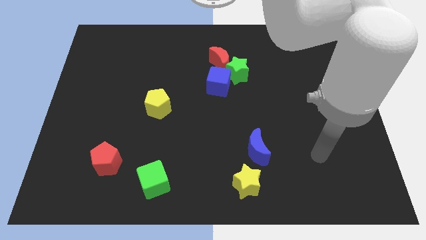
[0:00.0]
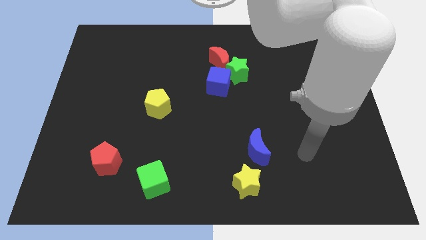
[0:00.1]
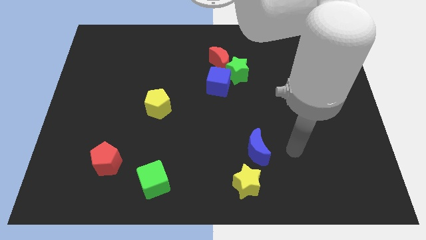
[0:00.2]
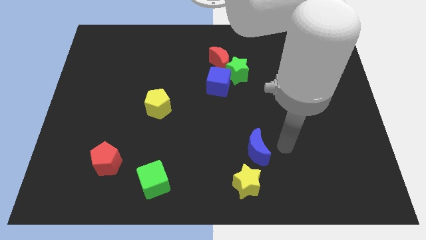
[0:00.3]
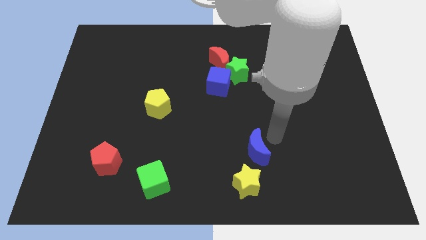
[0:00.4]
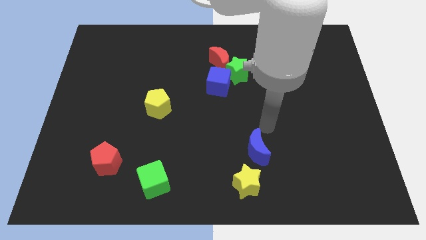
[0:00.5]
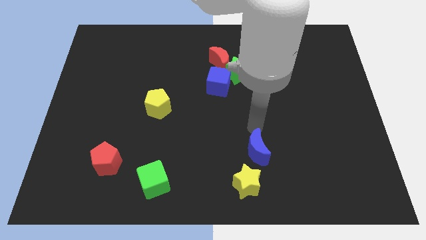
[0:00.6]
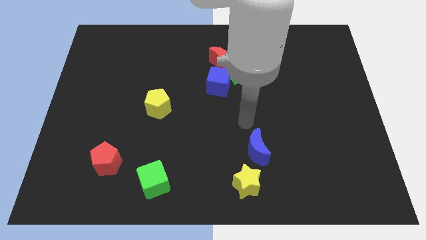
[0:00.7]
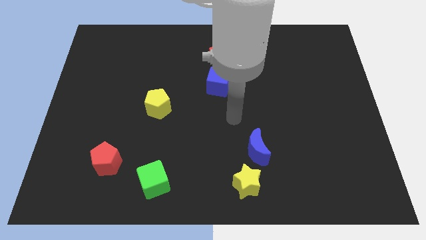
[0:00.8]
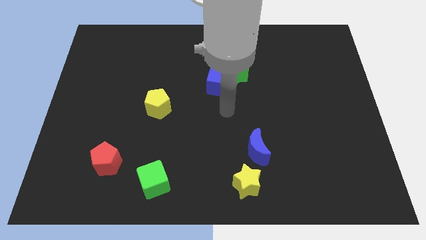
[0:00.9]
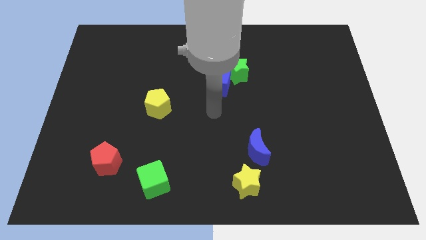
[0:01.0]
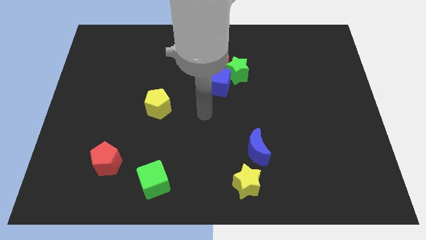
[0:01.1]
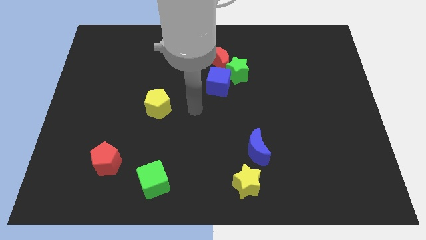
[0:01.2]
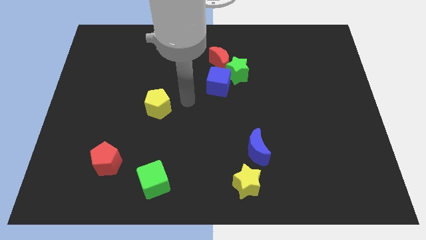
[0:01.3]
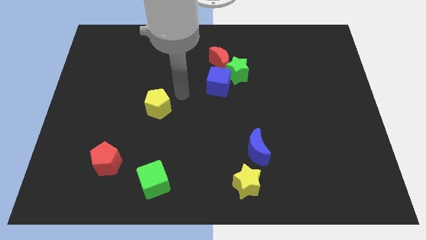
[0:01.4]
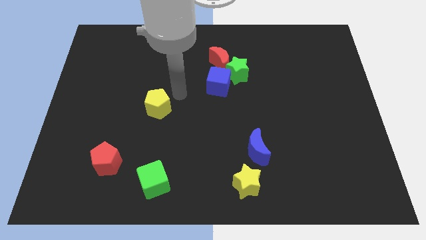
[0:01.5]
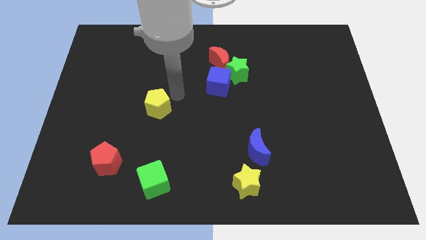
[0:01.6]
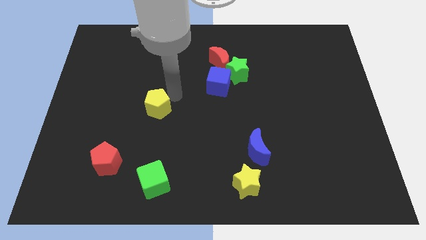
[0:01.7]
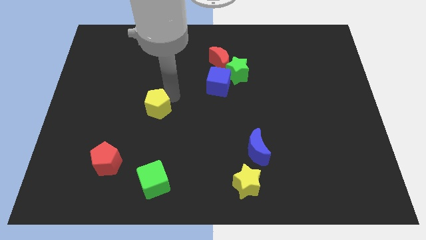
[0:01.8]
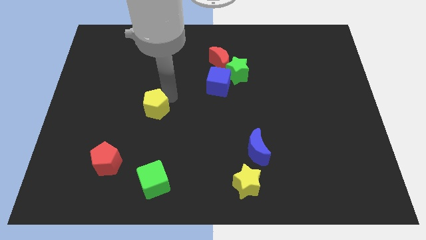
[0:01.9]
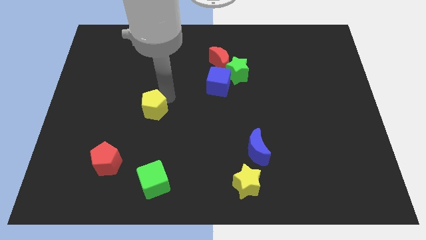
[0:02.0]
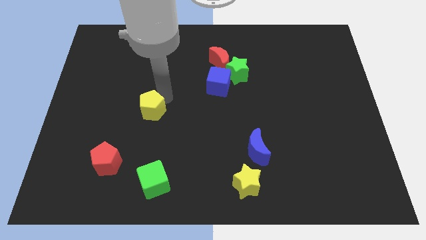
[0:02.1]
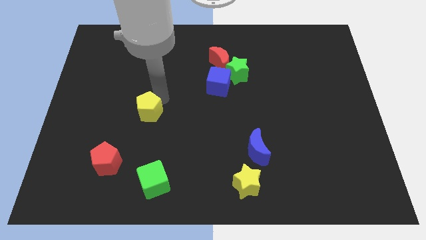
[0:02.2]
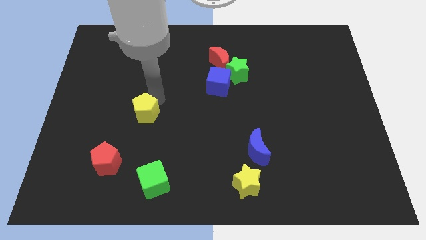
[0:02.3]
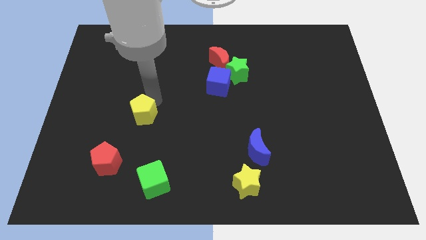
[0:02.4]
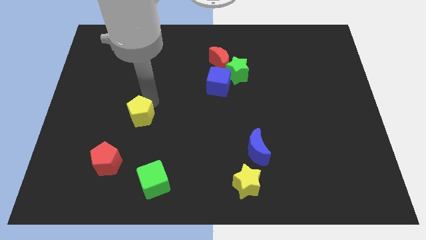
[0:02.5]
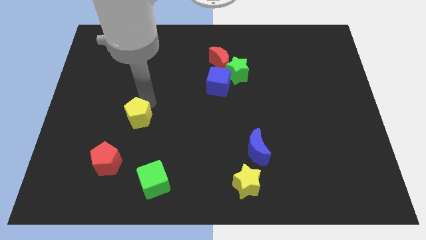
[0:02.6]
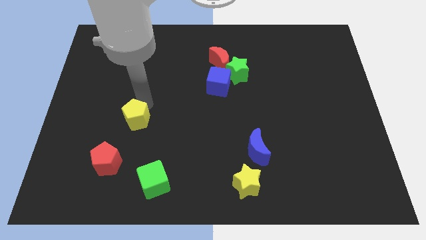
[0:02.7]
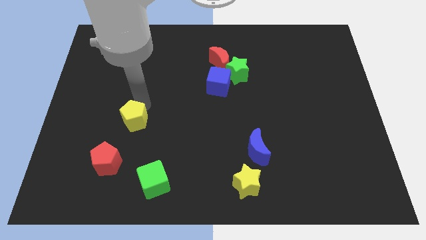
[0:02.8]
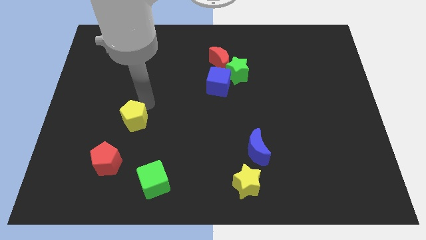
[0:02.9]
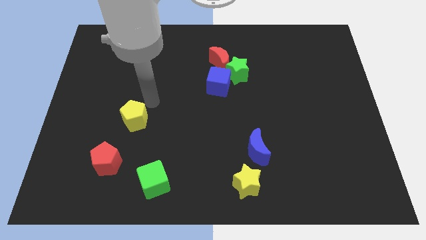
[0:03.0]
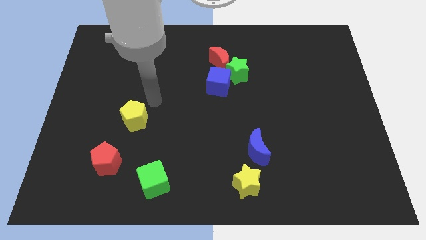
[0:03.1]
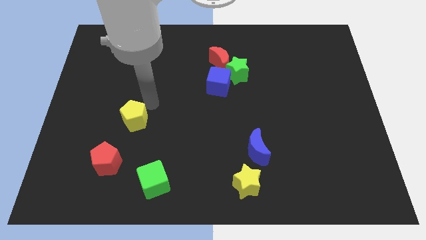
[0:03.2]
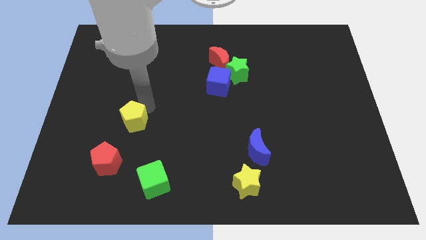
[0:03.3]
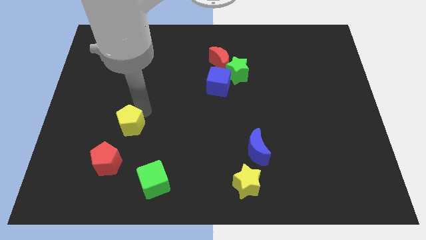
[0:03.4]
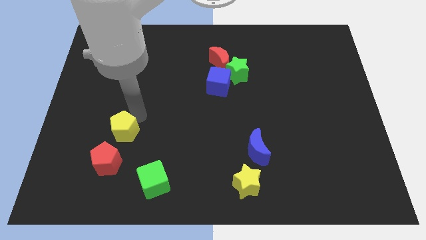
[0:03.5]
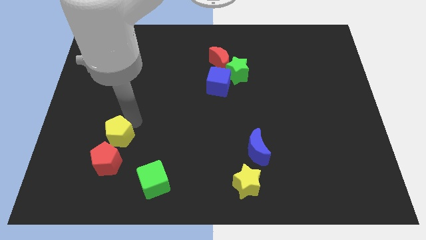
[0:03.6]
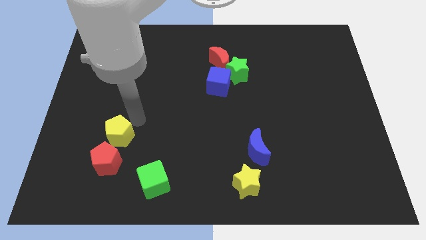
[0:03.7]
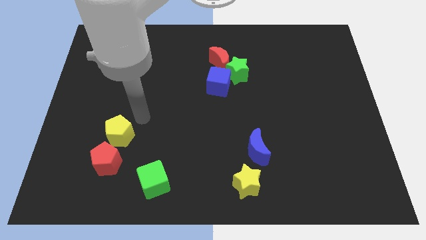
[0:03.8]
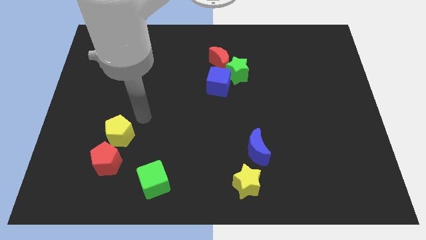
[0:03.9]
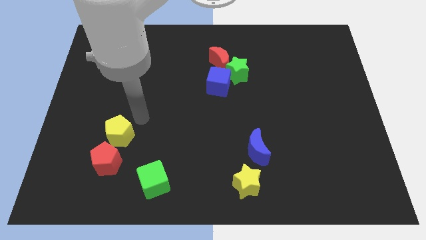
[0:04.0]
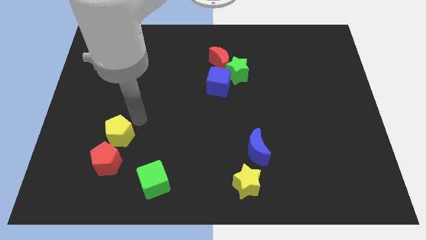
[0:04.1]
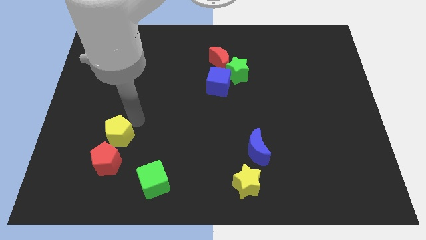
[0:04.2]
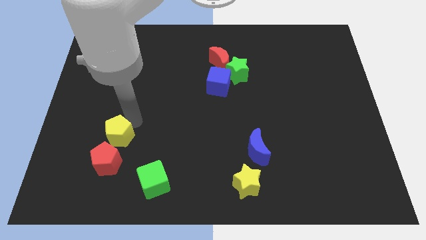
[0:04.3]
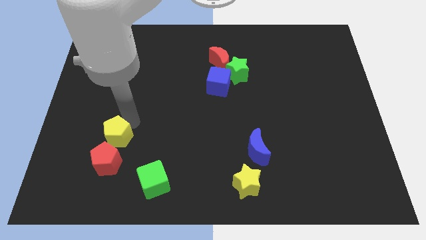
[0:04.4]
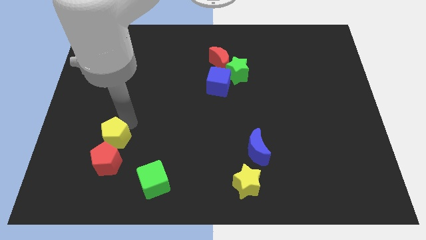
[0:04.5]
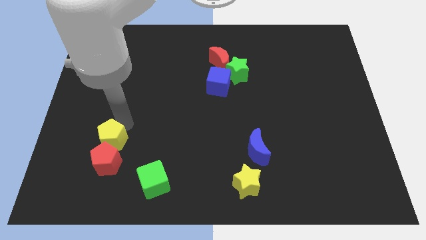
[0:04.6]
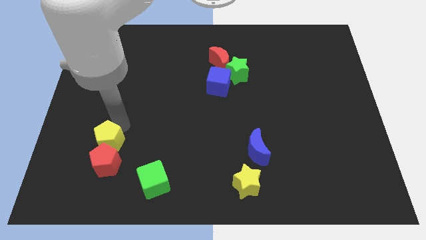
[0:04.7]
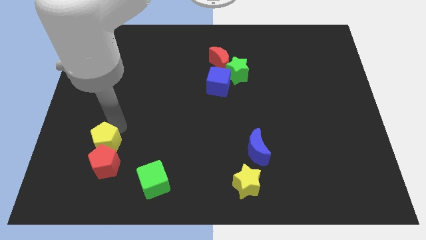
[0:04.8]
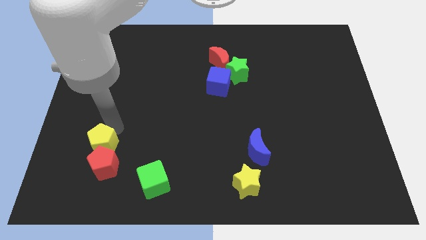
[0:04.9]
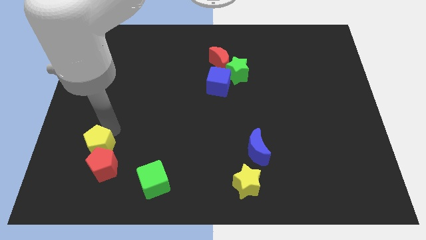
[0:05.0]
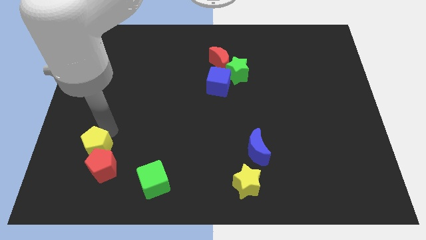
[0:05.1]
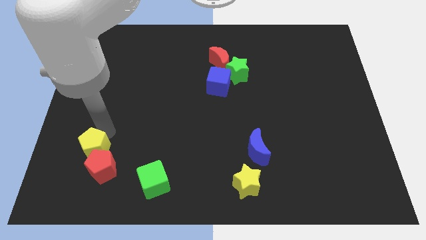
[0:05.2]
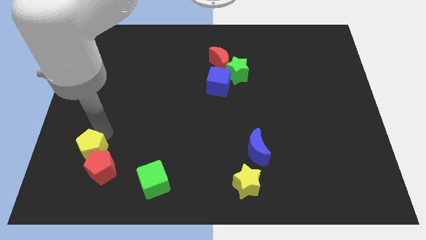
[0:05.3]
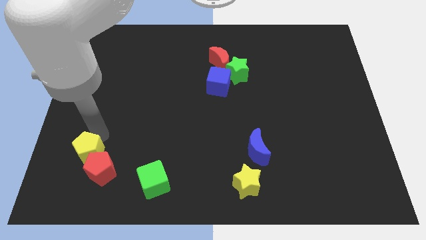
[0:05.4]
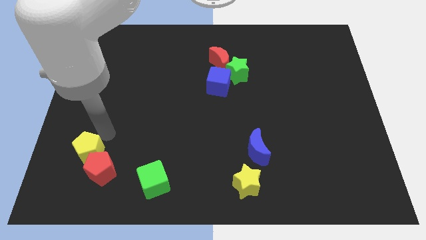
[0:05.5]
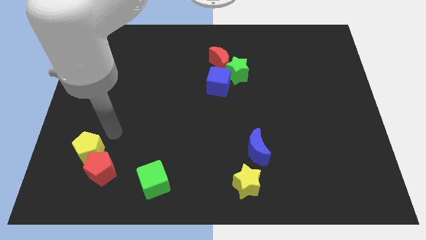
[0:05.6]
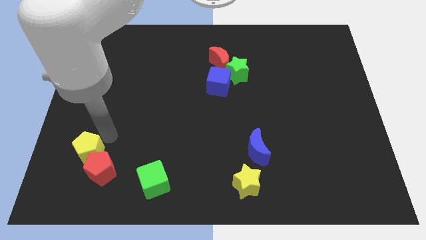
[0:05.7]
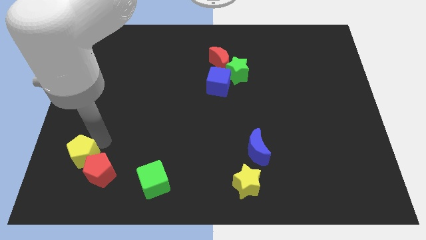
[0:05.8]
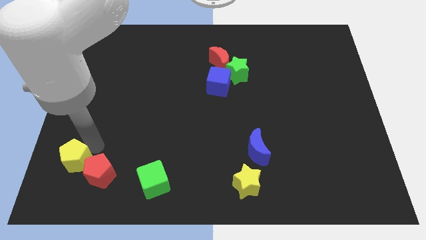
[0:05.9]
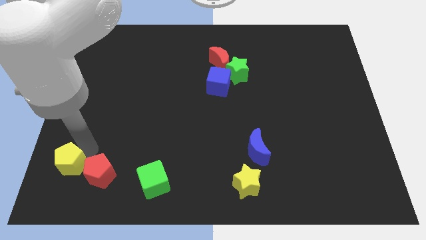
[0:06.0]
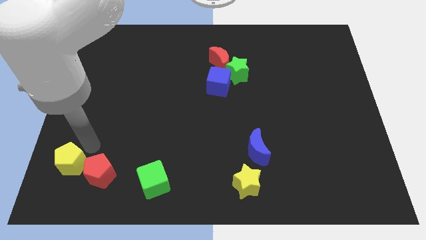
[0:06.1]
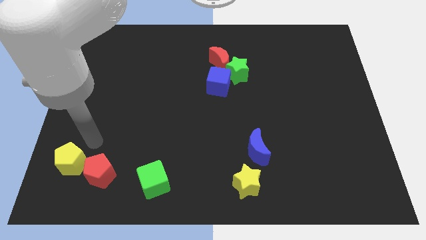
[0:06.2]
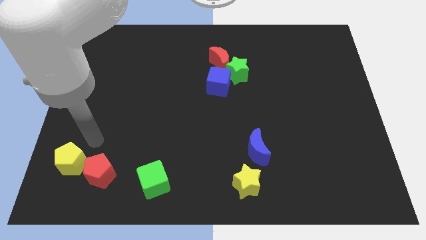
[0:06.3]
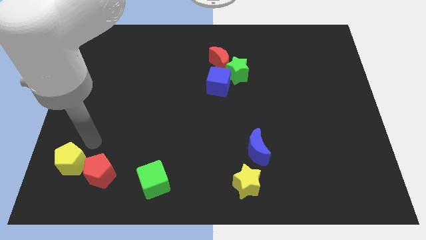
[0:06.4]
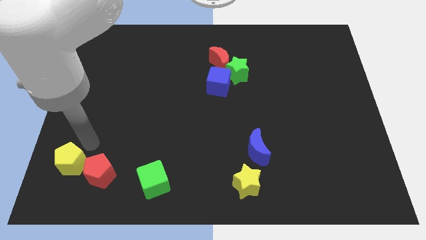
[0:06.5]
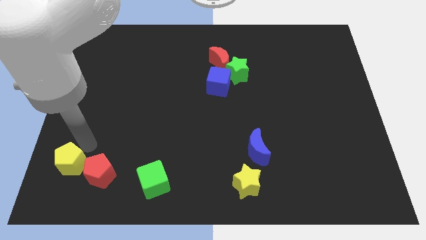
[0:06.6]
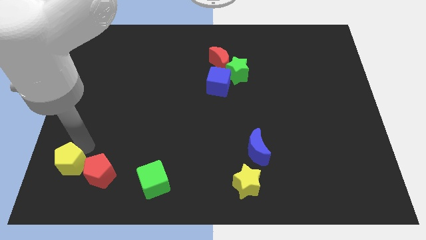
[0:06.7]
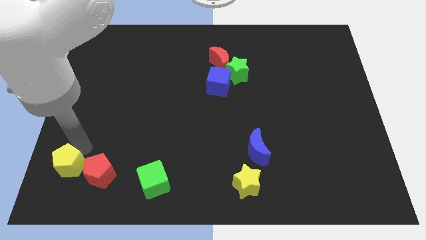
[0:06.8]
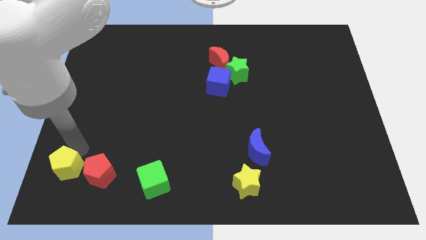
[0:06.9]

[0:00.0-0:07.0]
push the yellow pentagon to the bottom left corner
